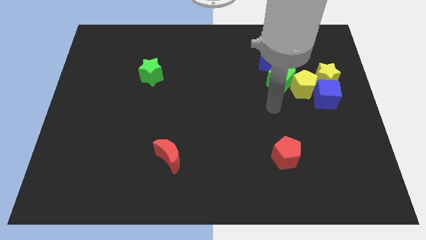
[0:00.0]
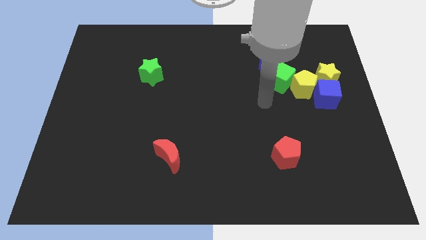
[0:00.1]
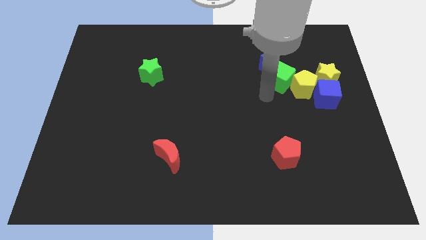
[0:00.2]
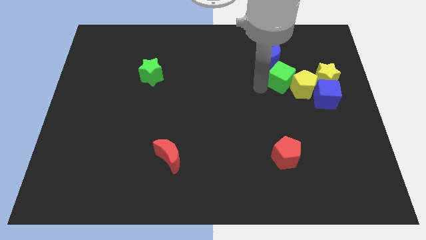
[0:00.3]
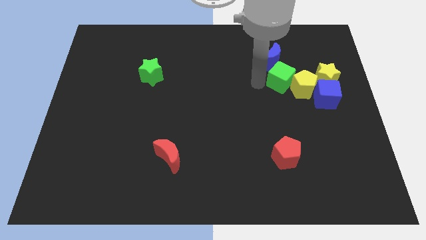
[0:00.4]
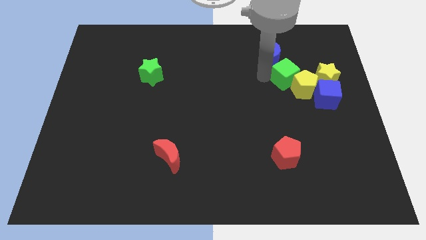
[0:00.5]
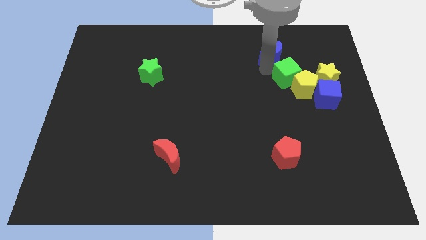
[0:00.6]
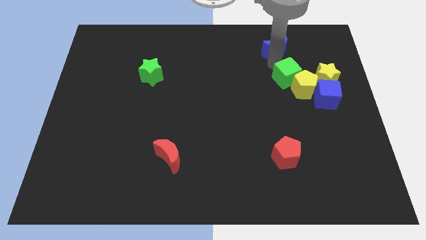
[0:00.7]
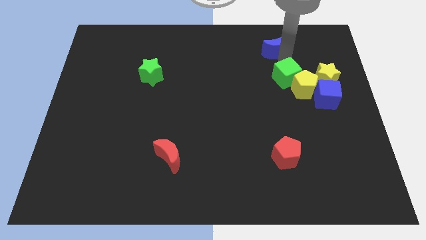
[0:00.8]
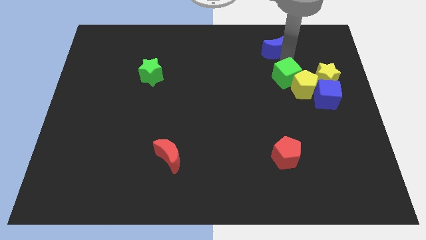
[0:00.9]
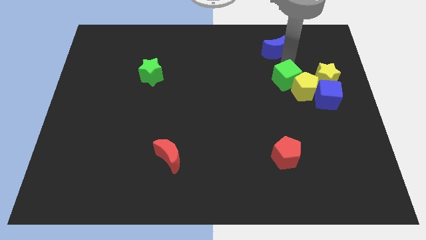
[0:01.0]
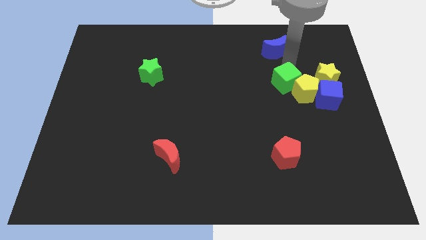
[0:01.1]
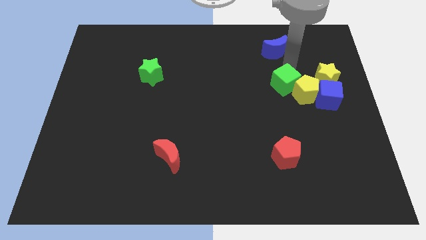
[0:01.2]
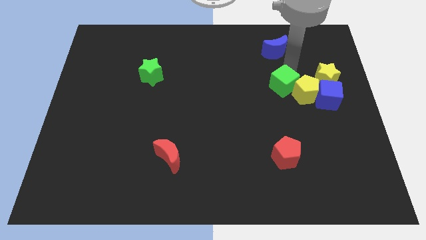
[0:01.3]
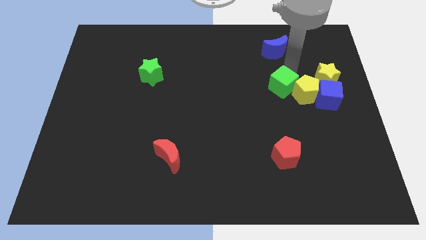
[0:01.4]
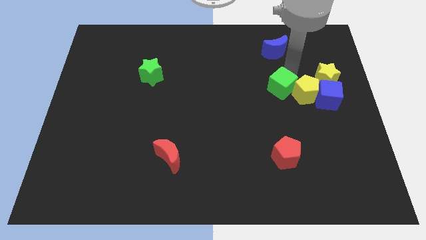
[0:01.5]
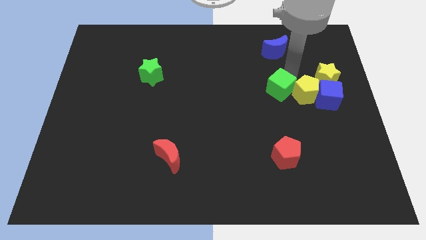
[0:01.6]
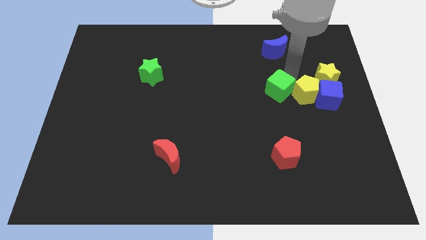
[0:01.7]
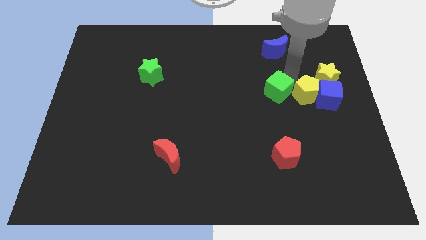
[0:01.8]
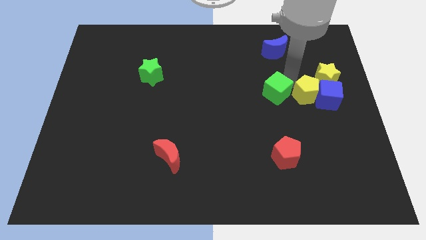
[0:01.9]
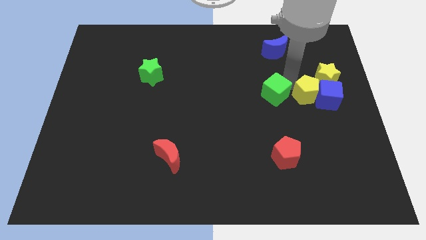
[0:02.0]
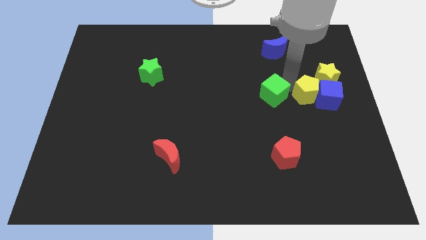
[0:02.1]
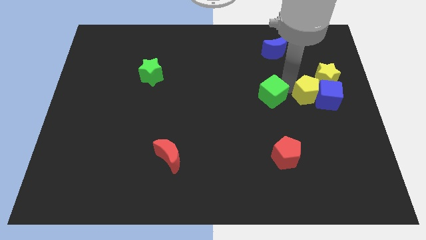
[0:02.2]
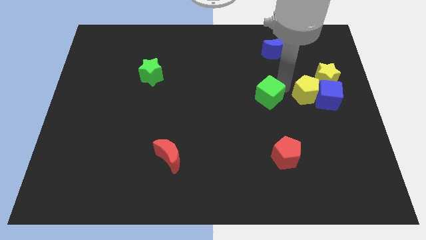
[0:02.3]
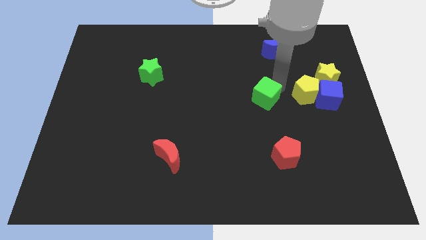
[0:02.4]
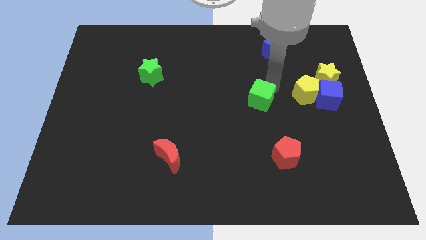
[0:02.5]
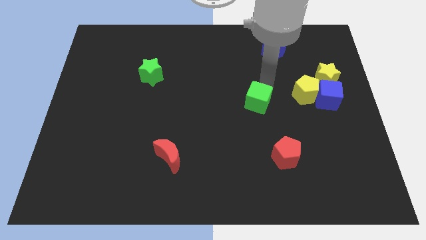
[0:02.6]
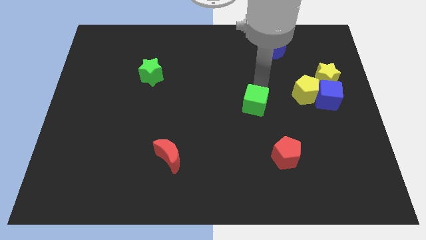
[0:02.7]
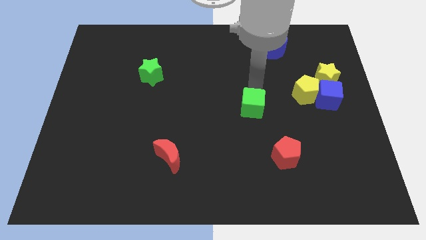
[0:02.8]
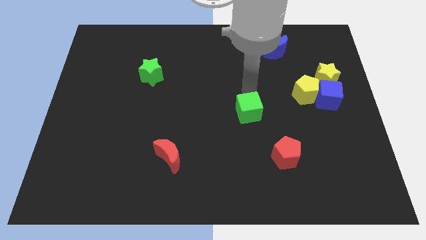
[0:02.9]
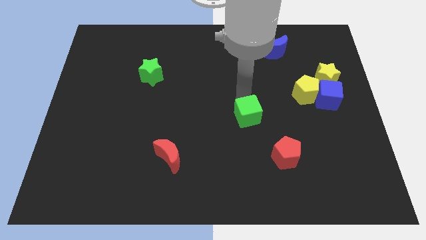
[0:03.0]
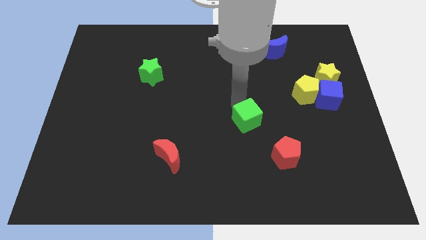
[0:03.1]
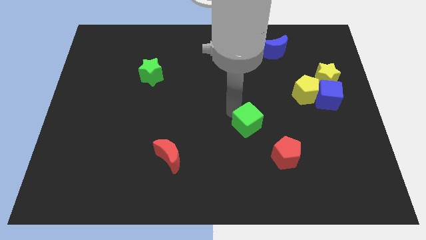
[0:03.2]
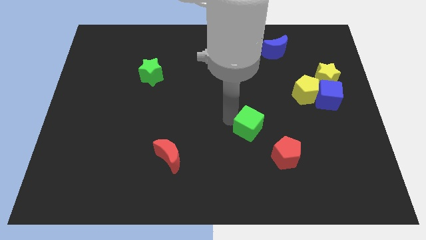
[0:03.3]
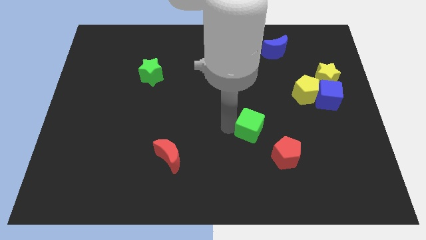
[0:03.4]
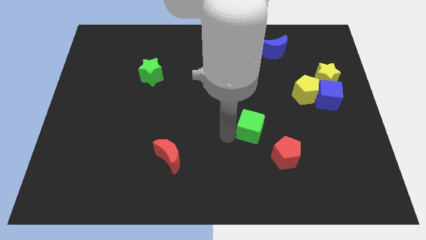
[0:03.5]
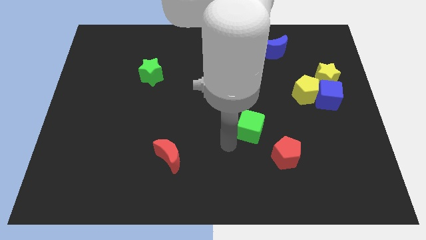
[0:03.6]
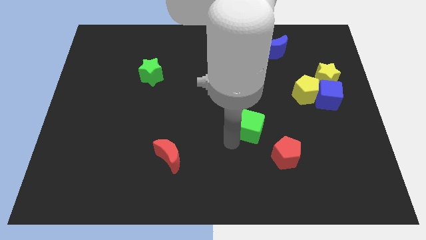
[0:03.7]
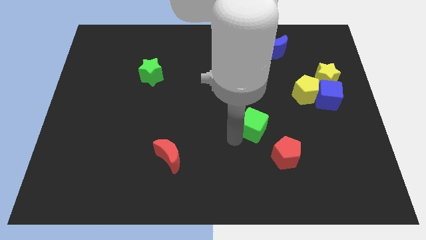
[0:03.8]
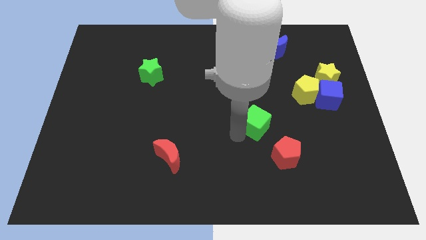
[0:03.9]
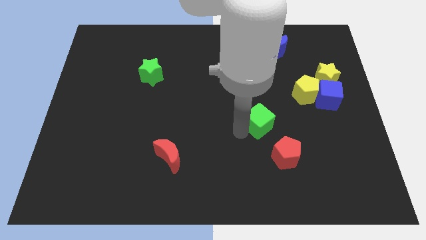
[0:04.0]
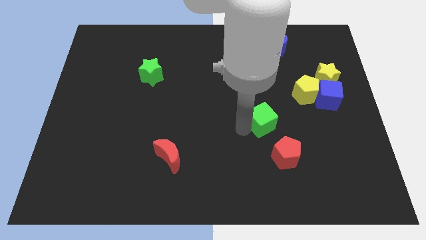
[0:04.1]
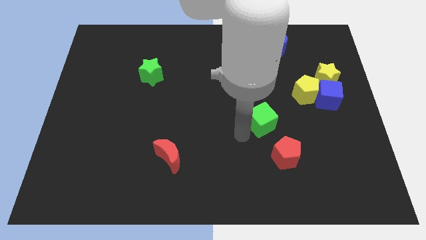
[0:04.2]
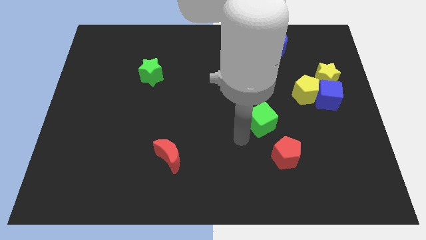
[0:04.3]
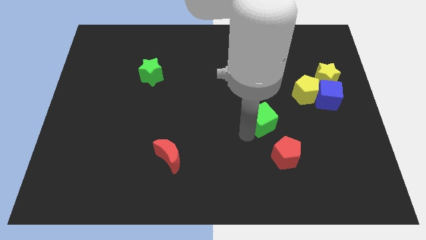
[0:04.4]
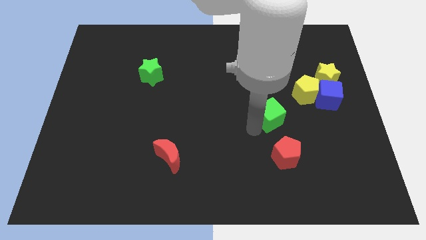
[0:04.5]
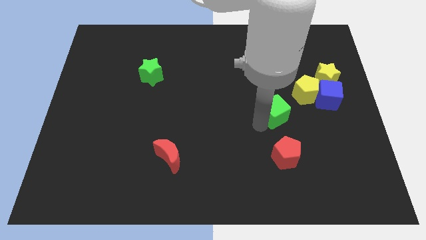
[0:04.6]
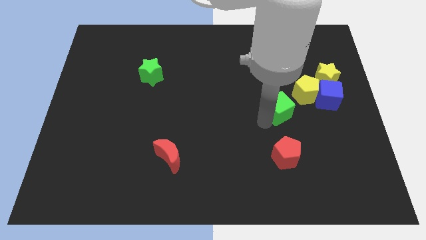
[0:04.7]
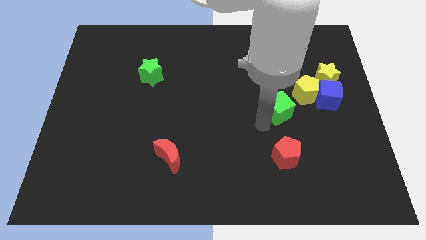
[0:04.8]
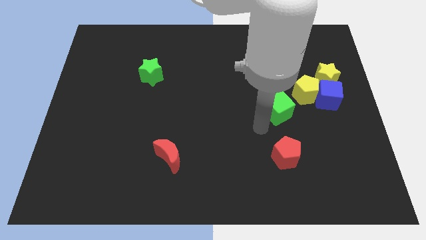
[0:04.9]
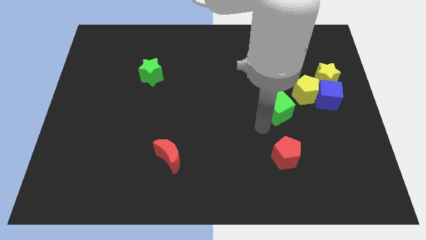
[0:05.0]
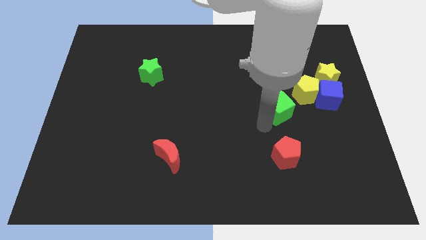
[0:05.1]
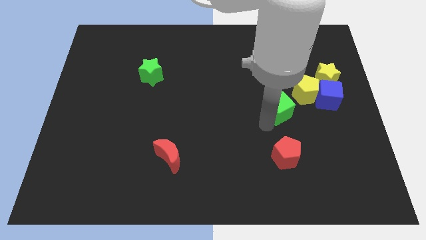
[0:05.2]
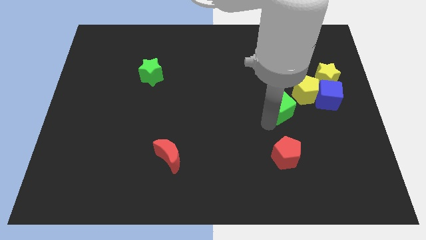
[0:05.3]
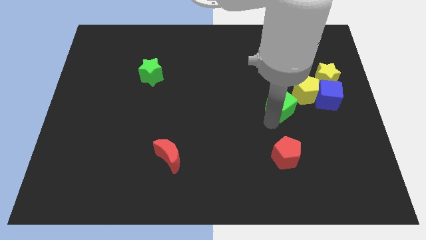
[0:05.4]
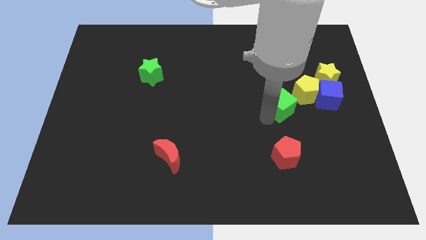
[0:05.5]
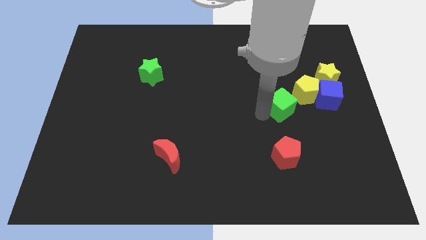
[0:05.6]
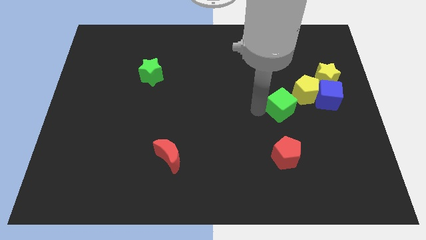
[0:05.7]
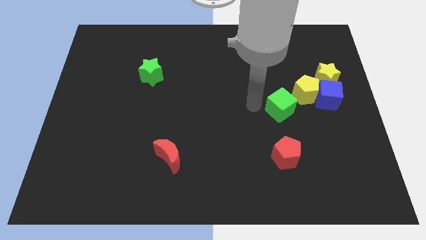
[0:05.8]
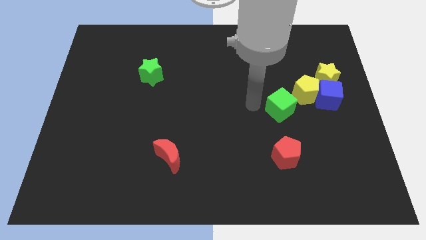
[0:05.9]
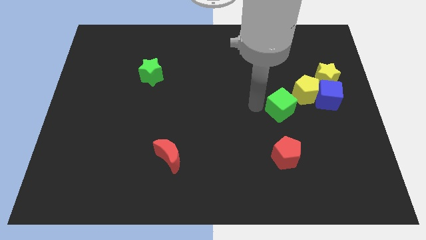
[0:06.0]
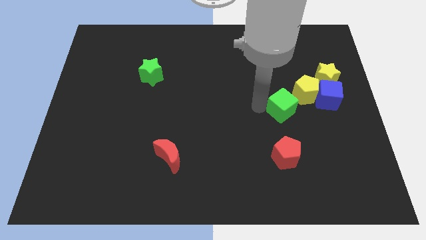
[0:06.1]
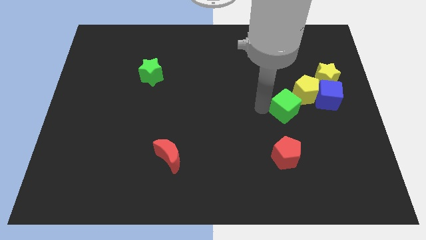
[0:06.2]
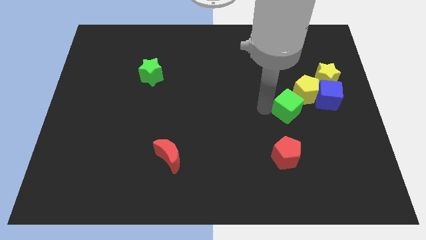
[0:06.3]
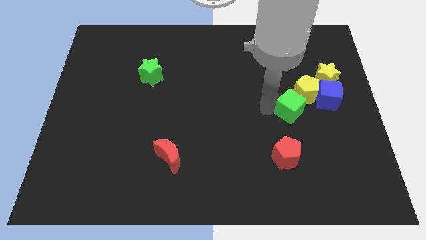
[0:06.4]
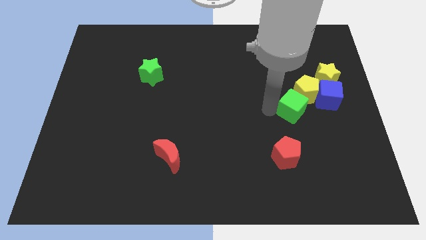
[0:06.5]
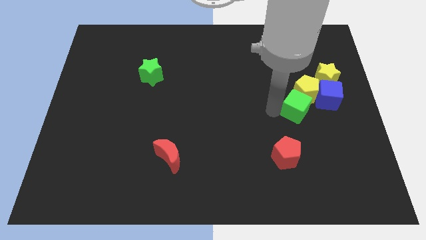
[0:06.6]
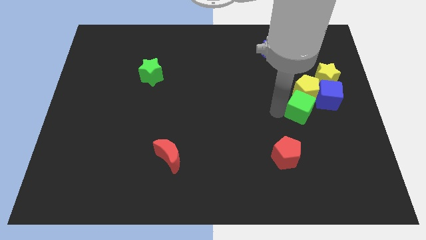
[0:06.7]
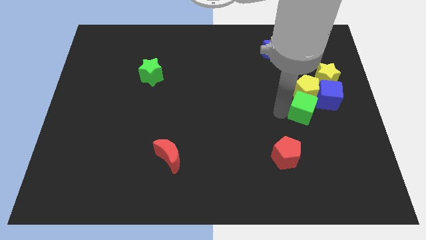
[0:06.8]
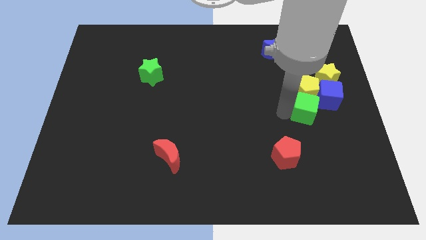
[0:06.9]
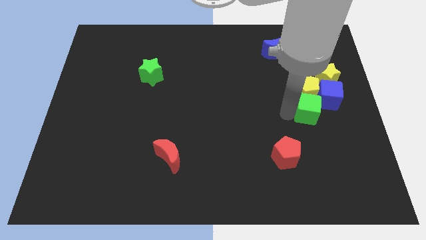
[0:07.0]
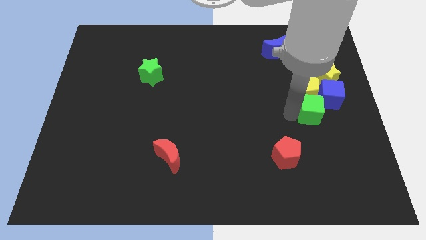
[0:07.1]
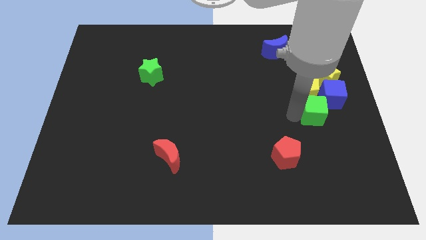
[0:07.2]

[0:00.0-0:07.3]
push the green cube below the yellow star
